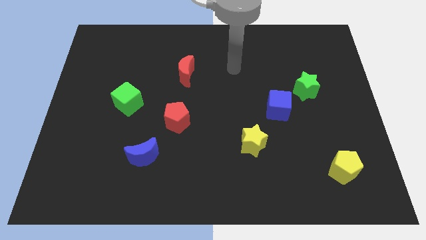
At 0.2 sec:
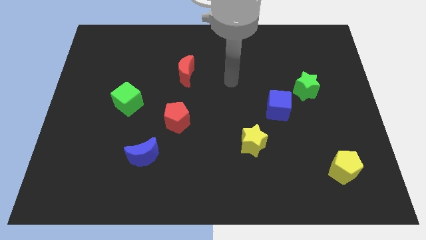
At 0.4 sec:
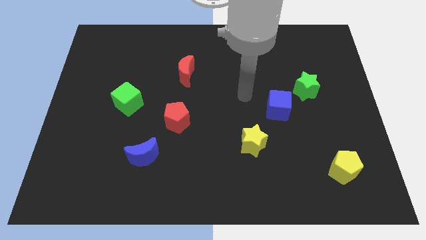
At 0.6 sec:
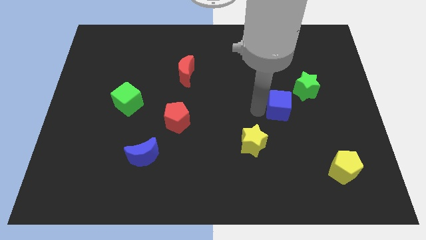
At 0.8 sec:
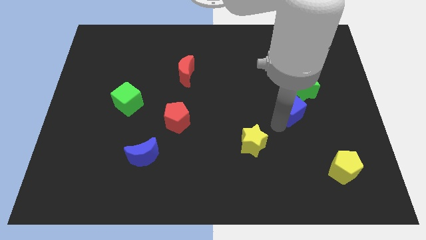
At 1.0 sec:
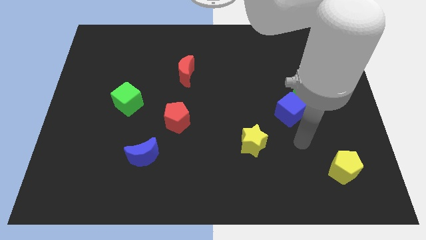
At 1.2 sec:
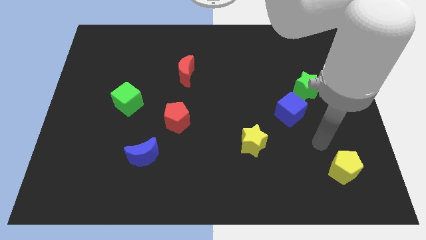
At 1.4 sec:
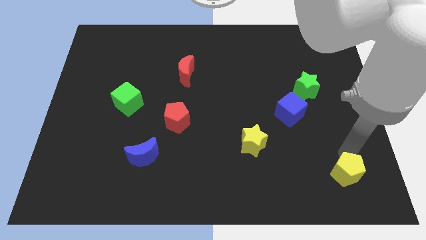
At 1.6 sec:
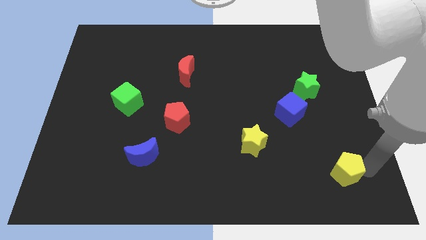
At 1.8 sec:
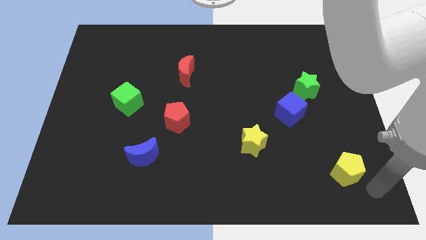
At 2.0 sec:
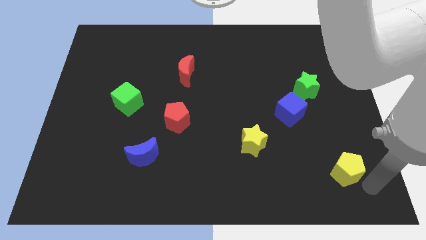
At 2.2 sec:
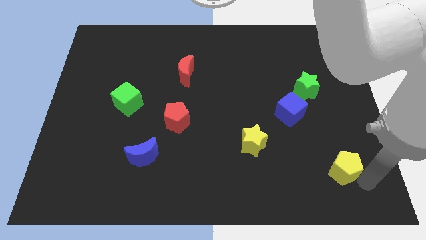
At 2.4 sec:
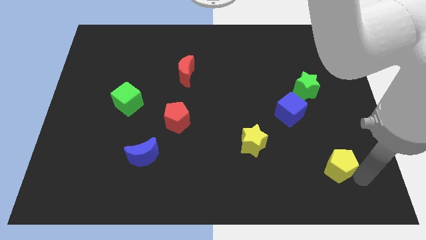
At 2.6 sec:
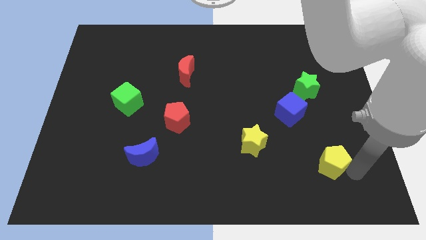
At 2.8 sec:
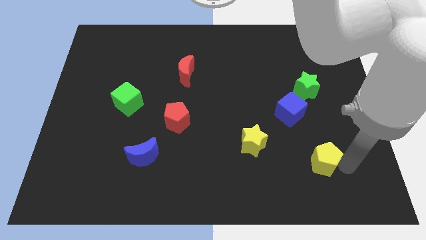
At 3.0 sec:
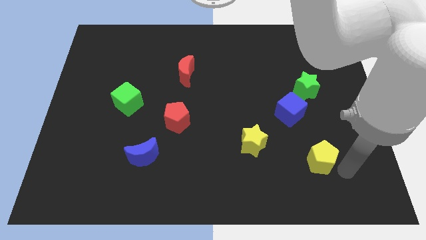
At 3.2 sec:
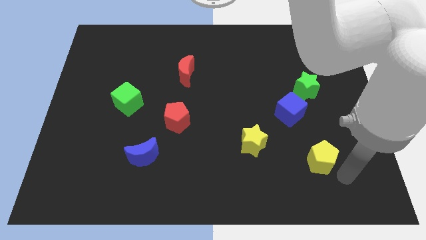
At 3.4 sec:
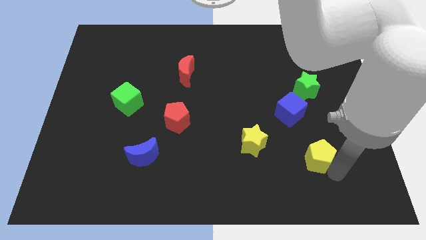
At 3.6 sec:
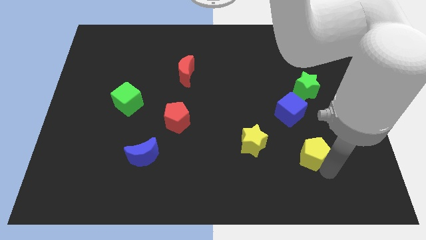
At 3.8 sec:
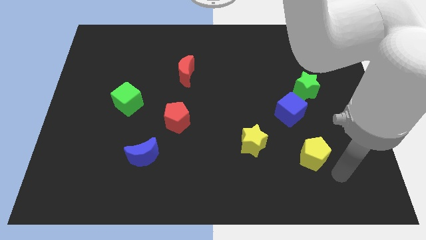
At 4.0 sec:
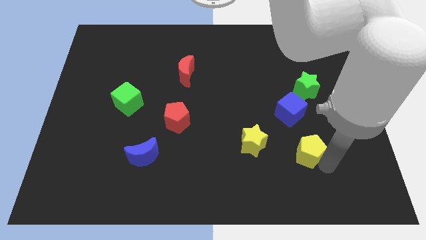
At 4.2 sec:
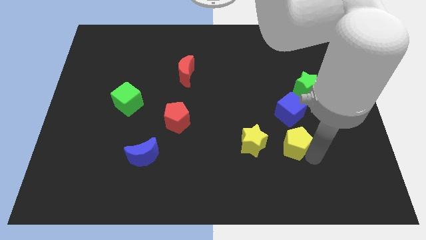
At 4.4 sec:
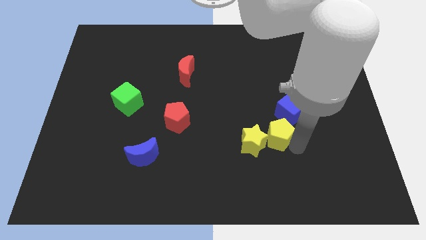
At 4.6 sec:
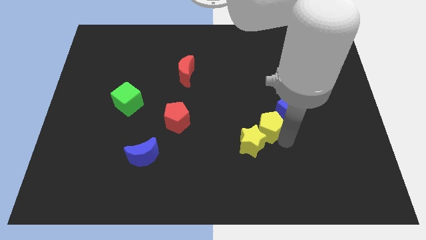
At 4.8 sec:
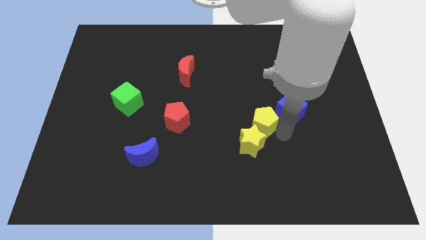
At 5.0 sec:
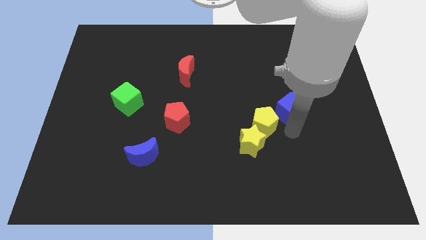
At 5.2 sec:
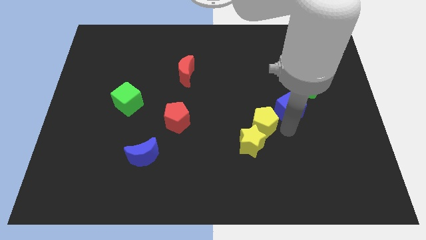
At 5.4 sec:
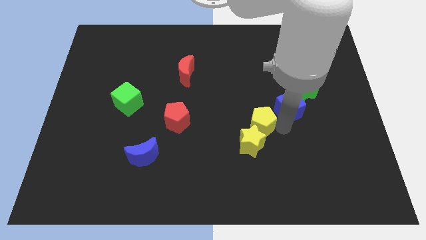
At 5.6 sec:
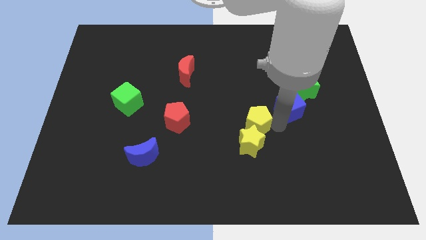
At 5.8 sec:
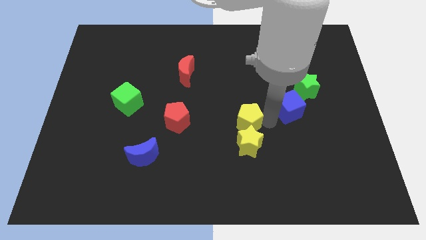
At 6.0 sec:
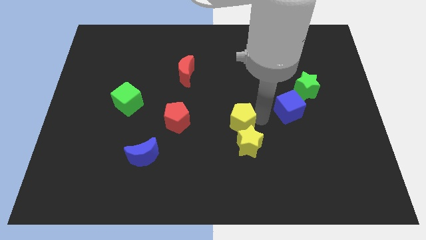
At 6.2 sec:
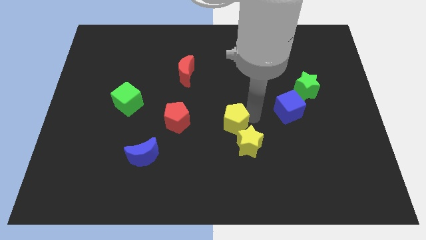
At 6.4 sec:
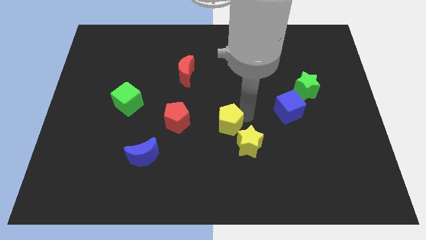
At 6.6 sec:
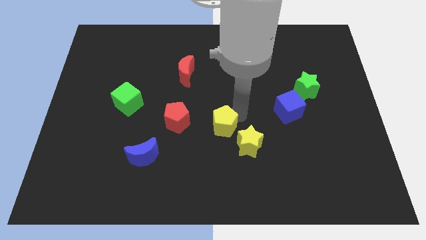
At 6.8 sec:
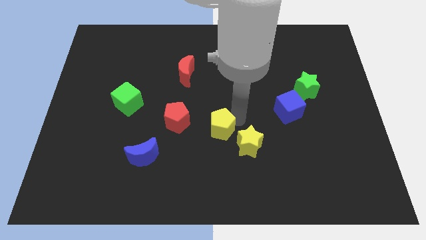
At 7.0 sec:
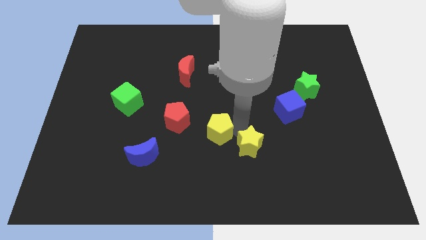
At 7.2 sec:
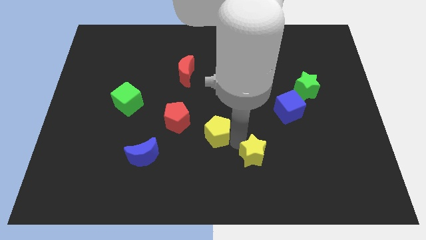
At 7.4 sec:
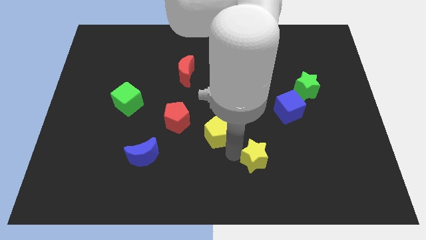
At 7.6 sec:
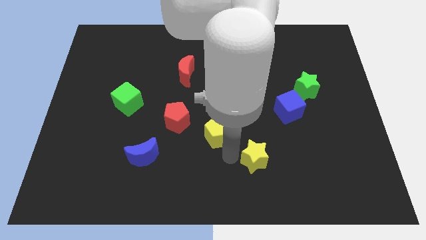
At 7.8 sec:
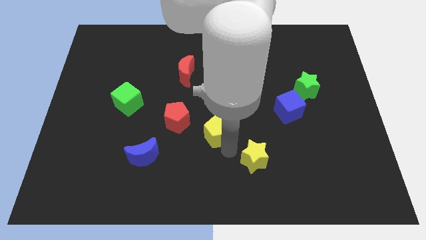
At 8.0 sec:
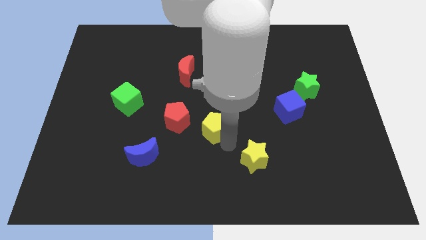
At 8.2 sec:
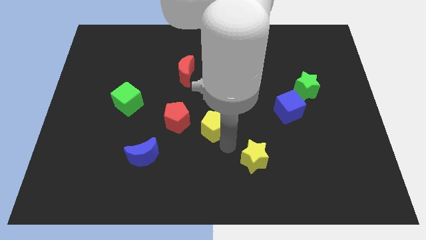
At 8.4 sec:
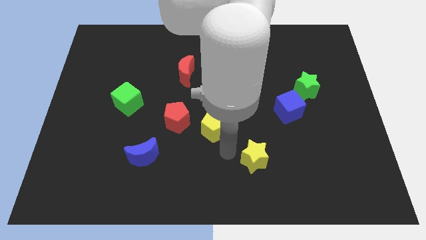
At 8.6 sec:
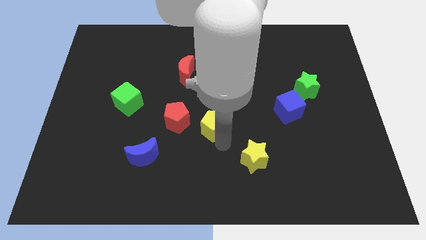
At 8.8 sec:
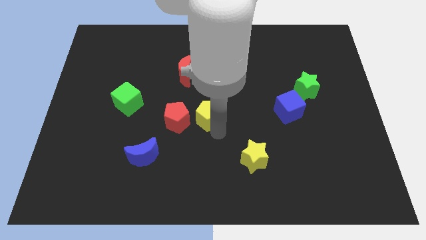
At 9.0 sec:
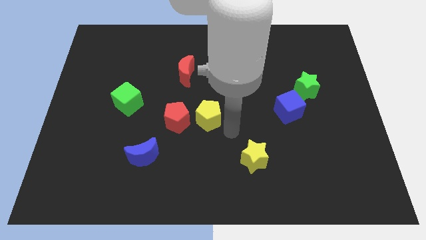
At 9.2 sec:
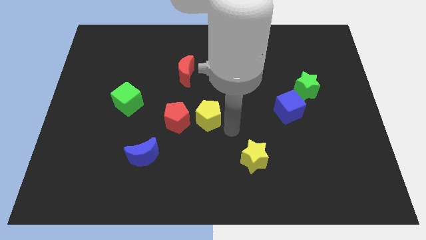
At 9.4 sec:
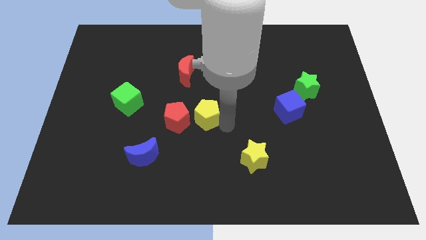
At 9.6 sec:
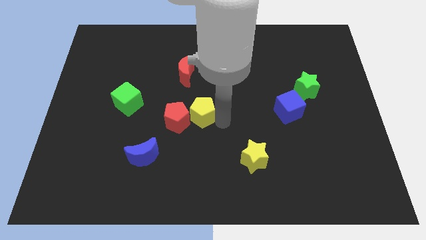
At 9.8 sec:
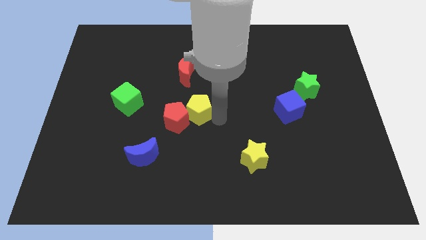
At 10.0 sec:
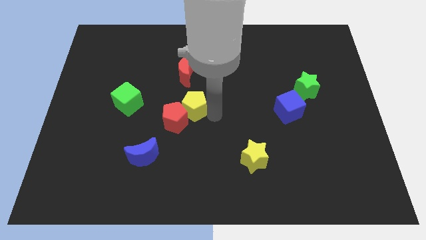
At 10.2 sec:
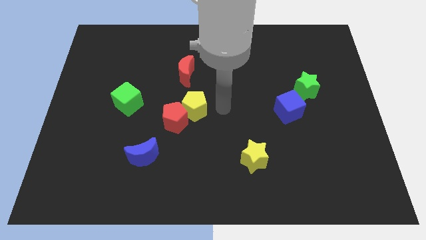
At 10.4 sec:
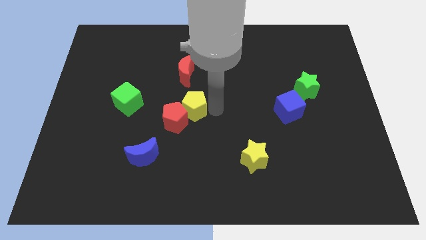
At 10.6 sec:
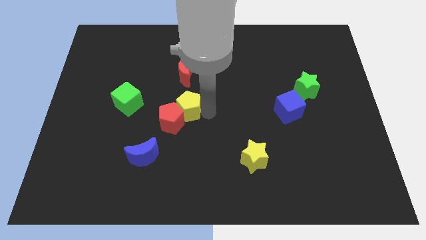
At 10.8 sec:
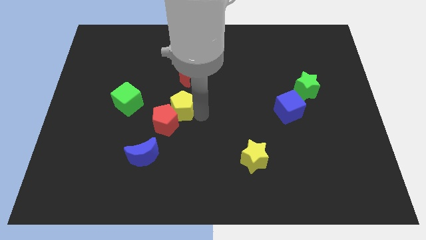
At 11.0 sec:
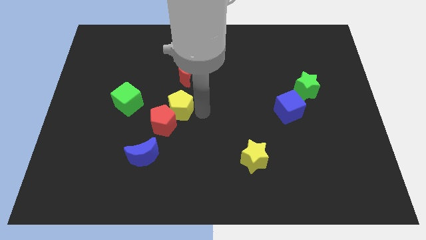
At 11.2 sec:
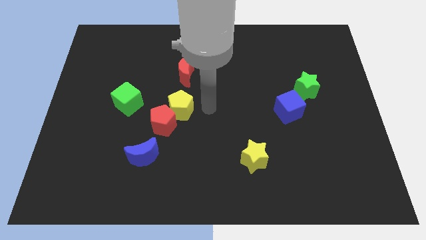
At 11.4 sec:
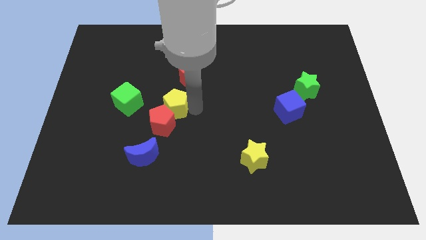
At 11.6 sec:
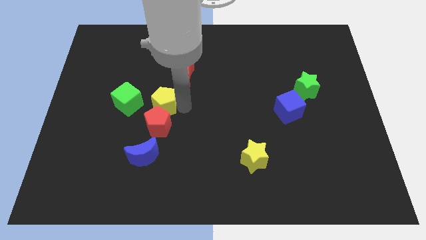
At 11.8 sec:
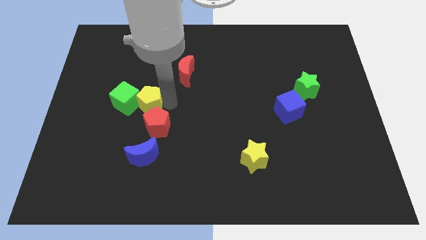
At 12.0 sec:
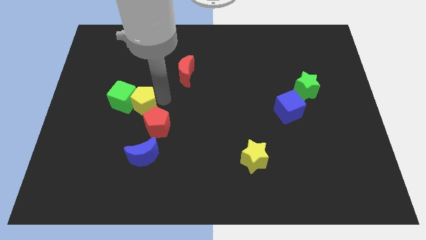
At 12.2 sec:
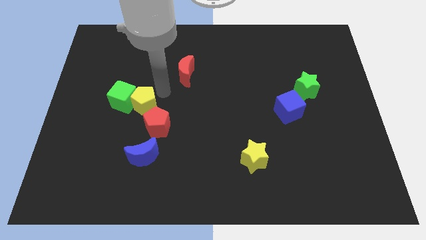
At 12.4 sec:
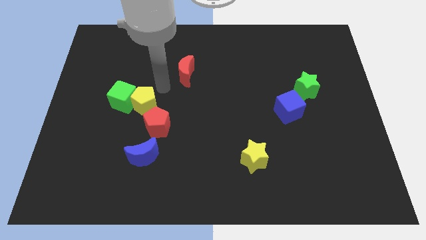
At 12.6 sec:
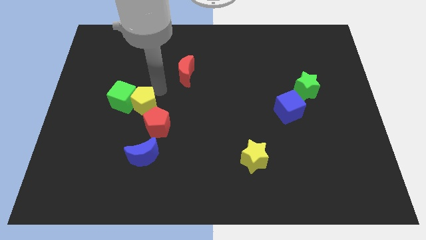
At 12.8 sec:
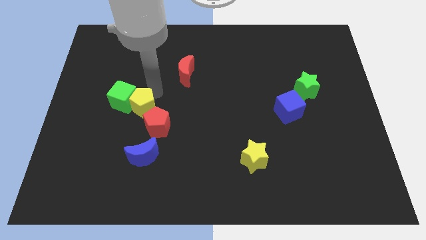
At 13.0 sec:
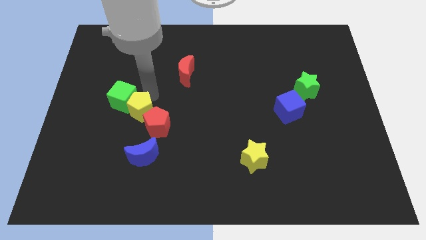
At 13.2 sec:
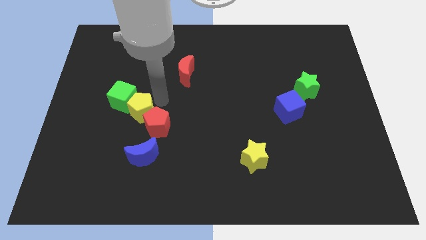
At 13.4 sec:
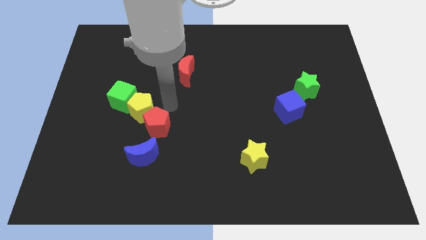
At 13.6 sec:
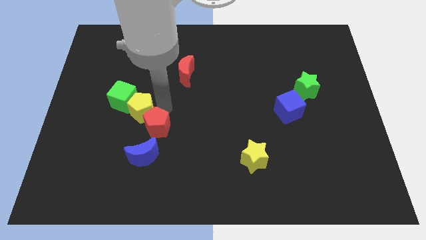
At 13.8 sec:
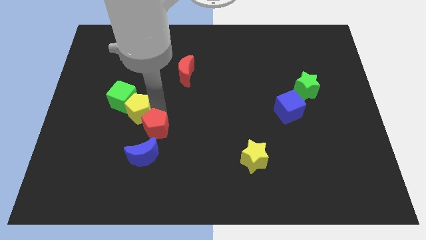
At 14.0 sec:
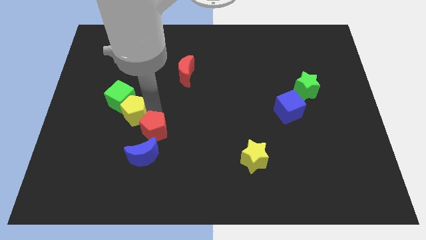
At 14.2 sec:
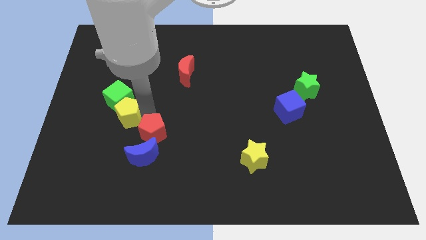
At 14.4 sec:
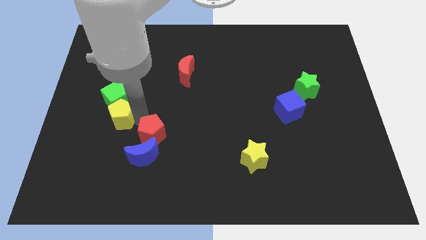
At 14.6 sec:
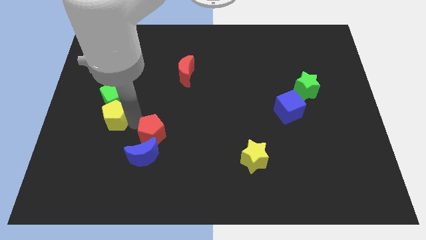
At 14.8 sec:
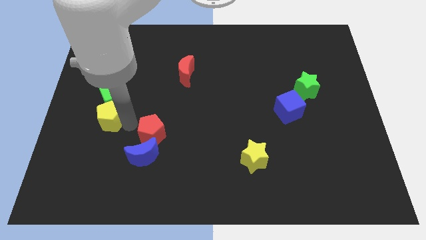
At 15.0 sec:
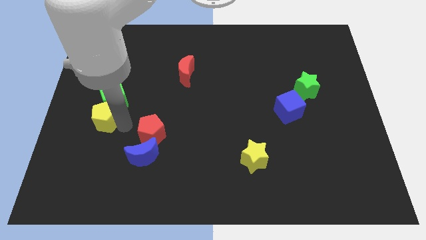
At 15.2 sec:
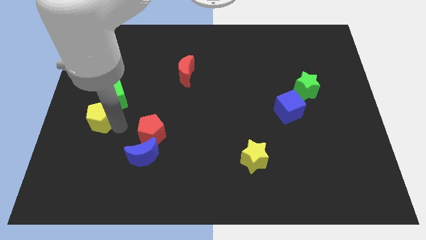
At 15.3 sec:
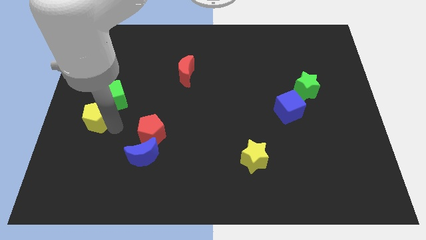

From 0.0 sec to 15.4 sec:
move the yellow pentagon to the center left
